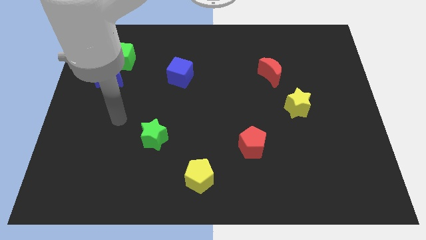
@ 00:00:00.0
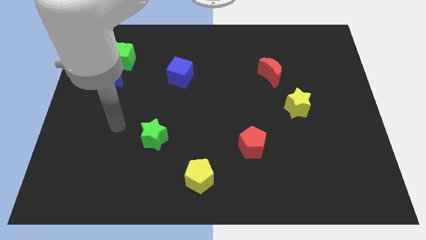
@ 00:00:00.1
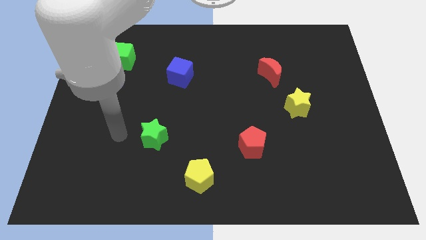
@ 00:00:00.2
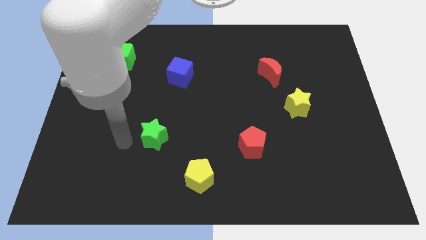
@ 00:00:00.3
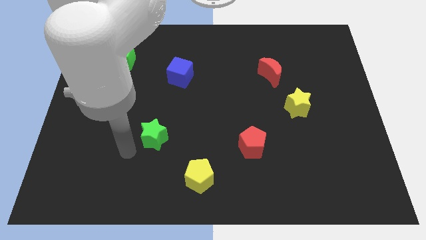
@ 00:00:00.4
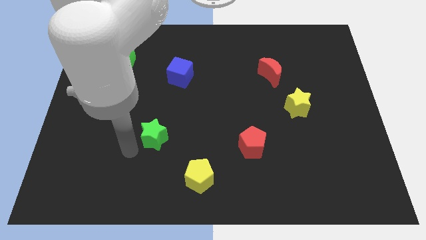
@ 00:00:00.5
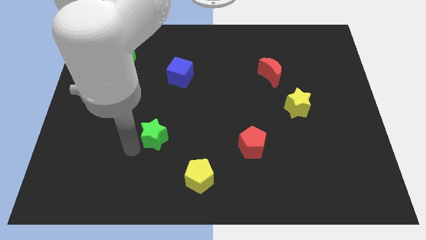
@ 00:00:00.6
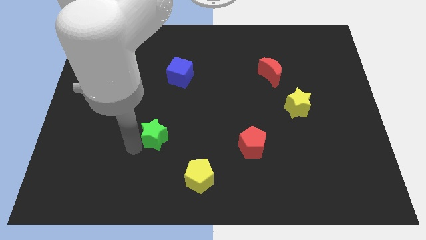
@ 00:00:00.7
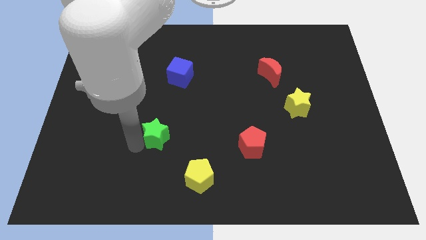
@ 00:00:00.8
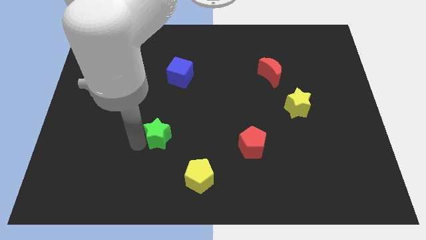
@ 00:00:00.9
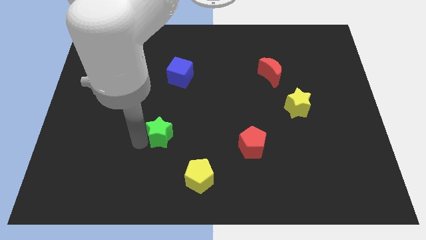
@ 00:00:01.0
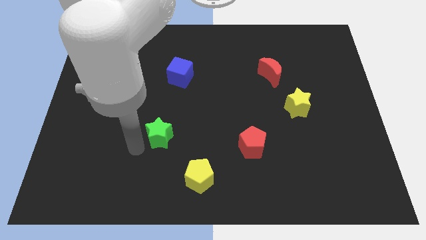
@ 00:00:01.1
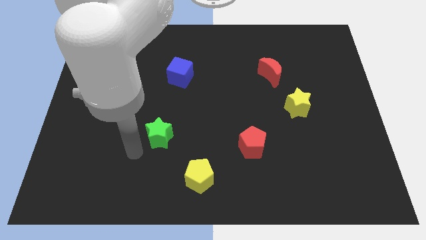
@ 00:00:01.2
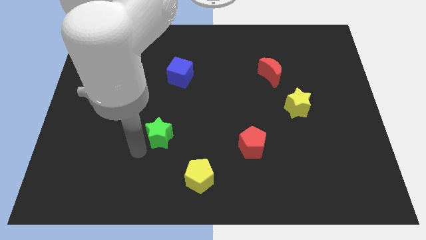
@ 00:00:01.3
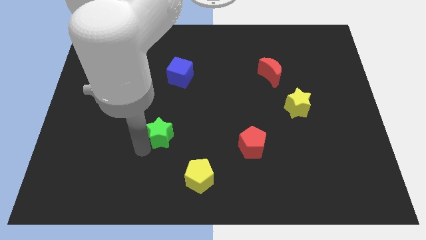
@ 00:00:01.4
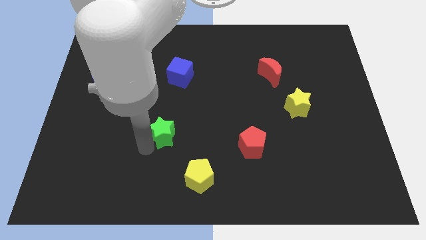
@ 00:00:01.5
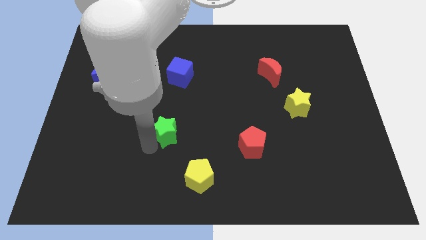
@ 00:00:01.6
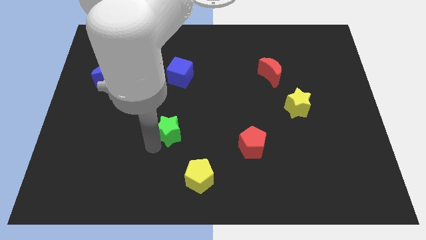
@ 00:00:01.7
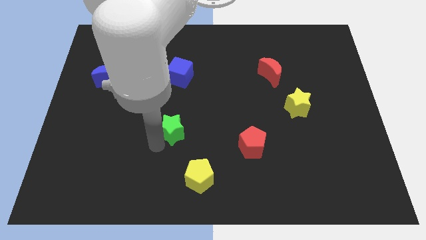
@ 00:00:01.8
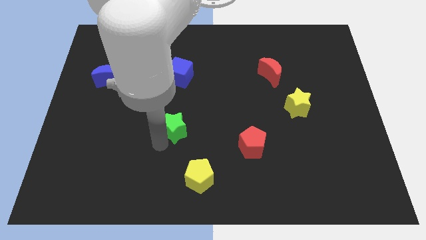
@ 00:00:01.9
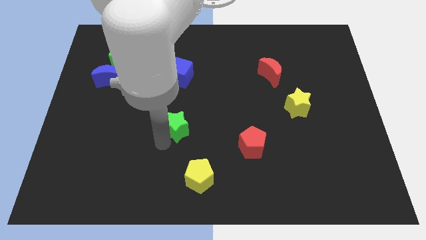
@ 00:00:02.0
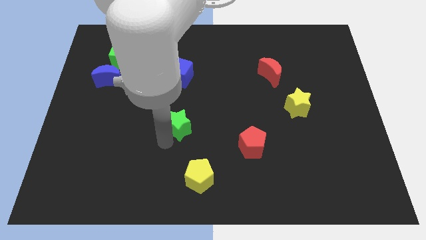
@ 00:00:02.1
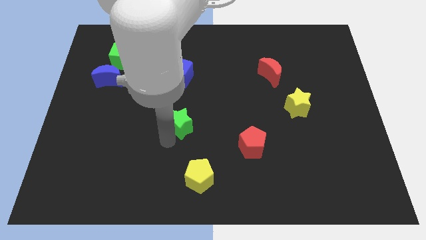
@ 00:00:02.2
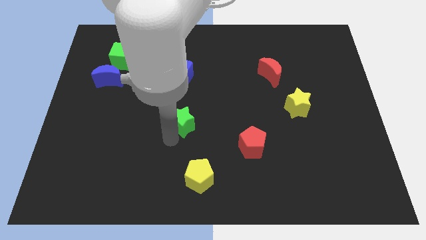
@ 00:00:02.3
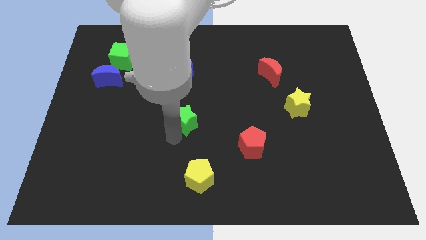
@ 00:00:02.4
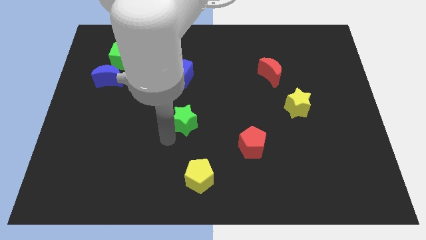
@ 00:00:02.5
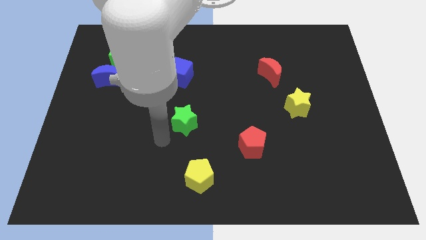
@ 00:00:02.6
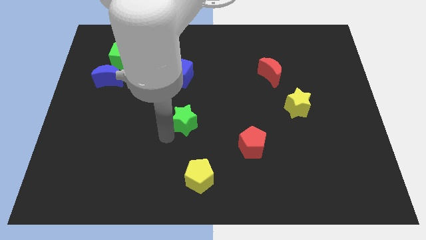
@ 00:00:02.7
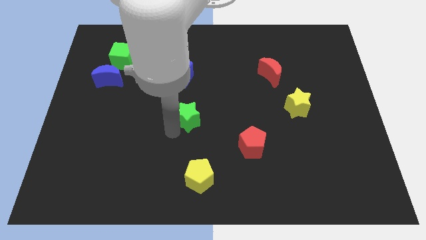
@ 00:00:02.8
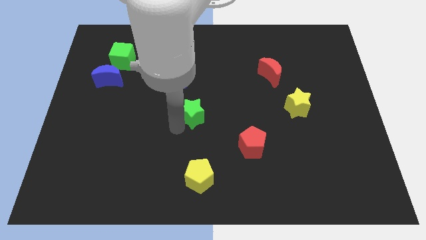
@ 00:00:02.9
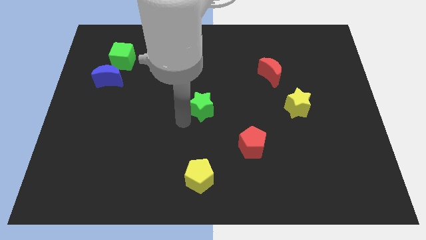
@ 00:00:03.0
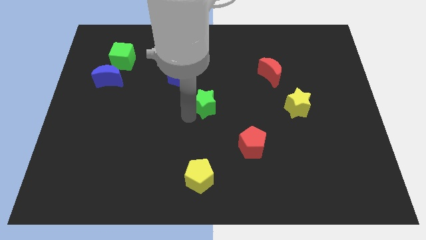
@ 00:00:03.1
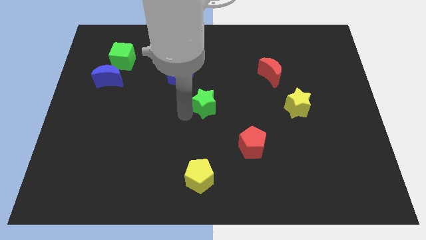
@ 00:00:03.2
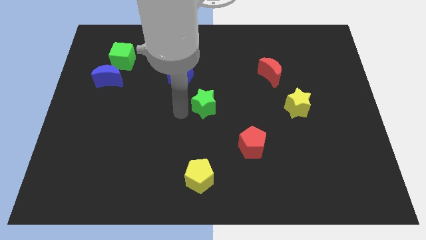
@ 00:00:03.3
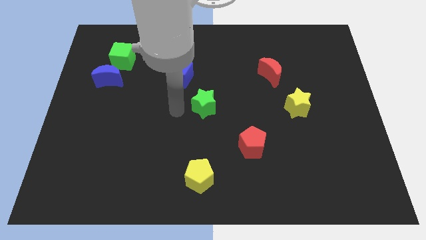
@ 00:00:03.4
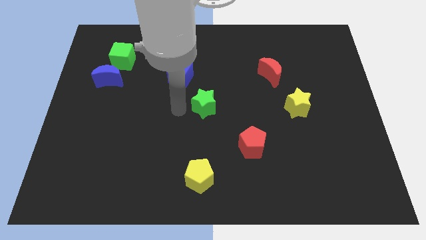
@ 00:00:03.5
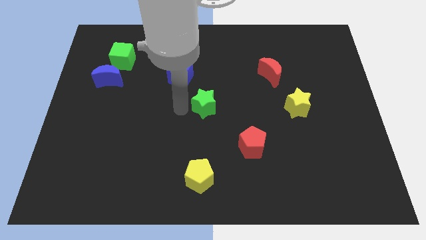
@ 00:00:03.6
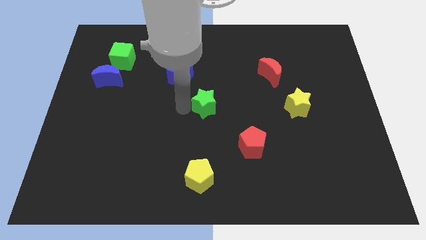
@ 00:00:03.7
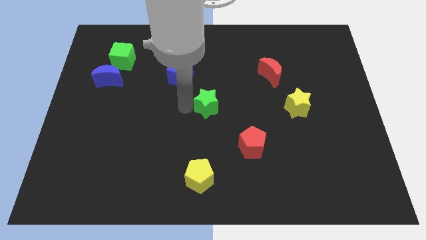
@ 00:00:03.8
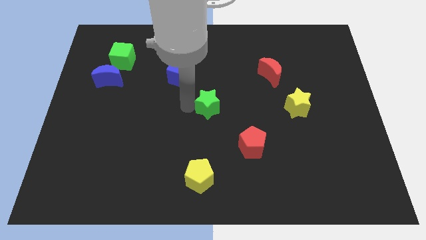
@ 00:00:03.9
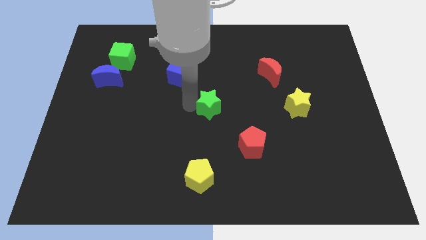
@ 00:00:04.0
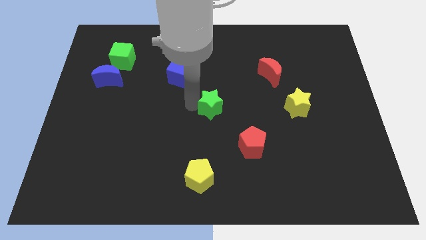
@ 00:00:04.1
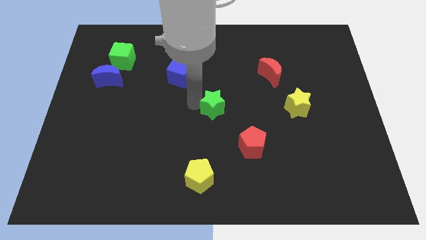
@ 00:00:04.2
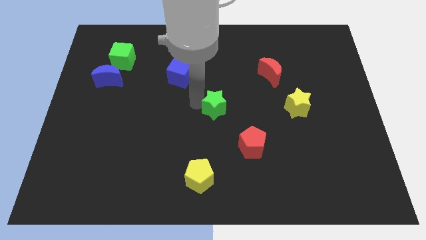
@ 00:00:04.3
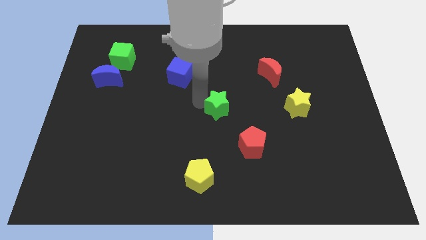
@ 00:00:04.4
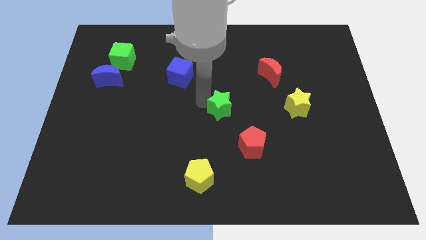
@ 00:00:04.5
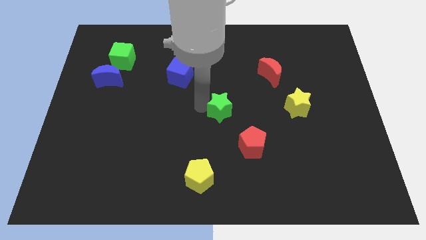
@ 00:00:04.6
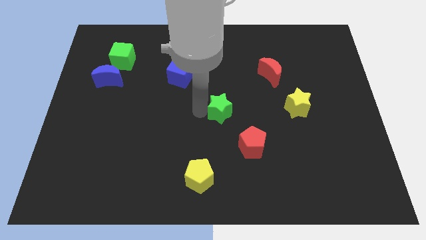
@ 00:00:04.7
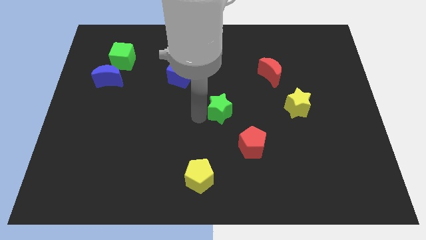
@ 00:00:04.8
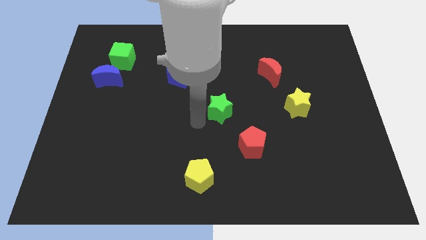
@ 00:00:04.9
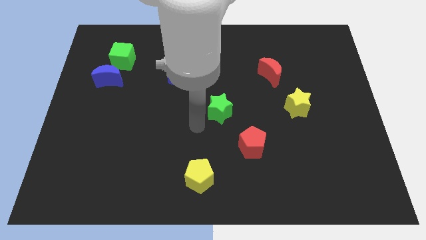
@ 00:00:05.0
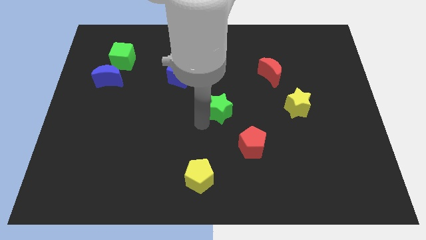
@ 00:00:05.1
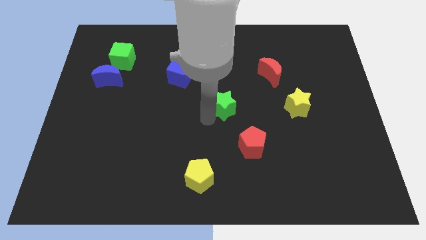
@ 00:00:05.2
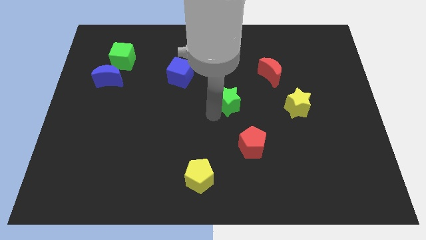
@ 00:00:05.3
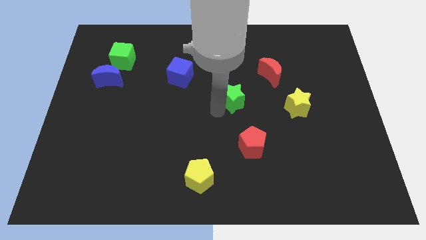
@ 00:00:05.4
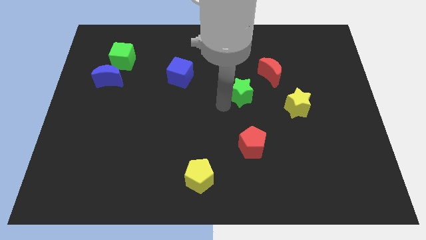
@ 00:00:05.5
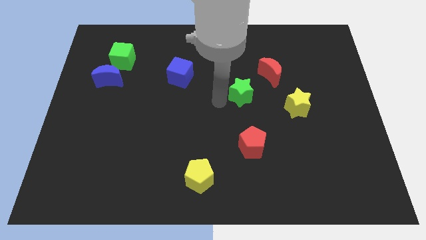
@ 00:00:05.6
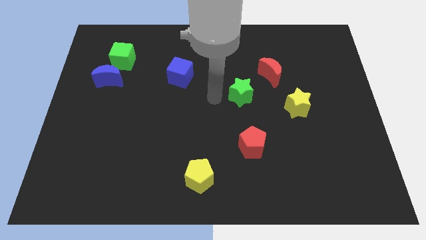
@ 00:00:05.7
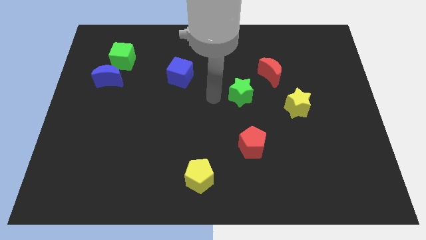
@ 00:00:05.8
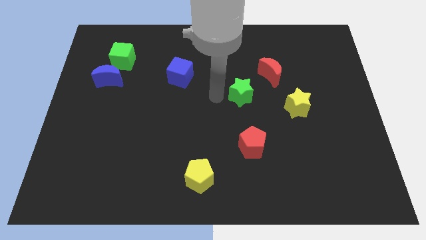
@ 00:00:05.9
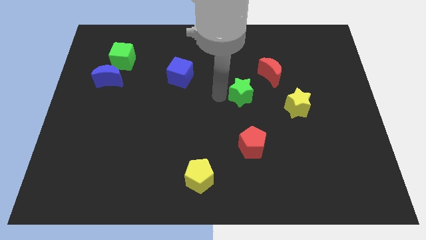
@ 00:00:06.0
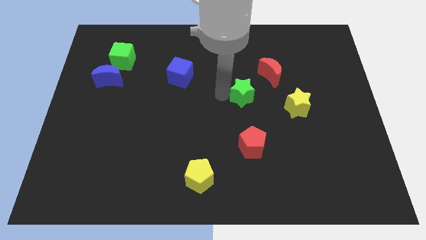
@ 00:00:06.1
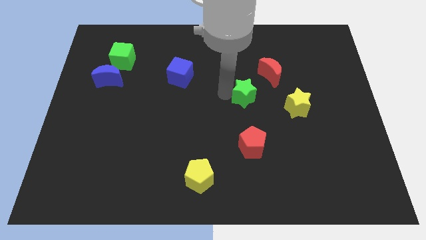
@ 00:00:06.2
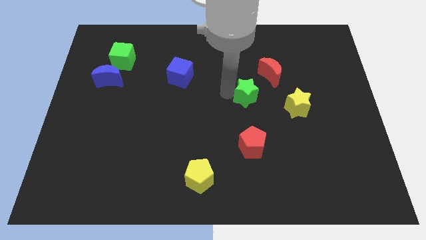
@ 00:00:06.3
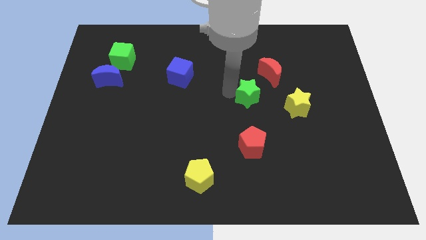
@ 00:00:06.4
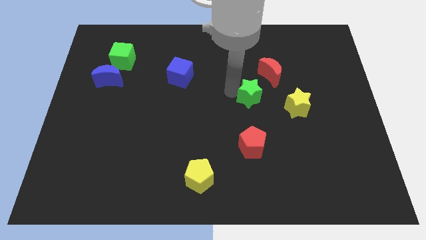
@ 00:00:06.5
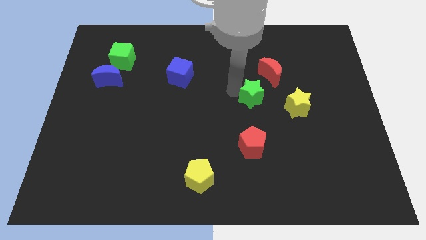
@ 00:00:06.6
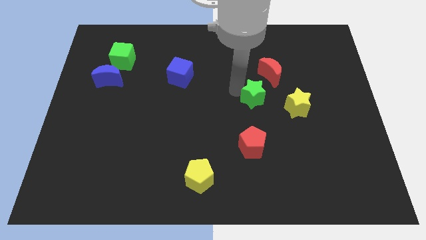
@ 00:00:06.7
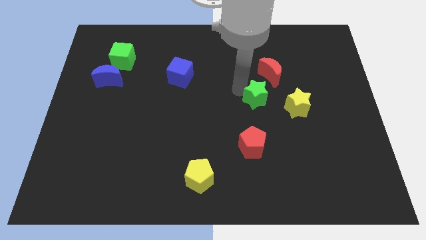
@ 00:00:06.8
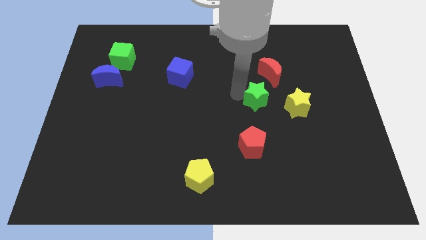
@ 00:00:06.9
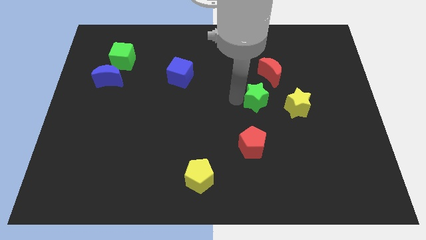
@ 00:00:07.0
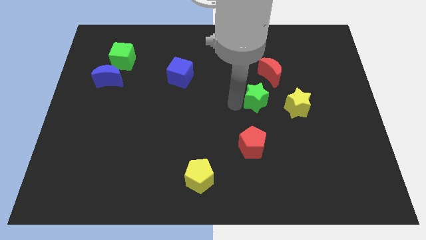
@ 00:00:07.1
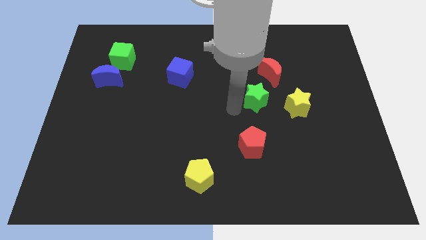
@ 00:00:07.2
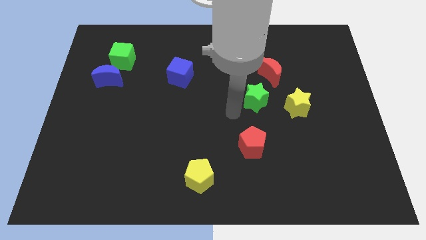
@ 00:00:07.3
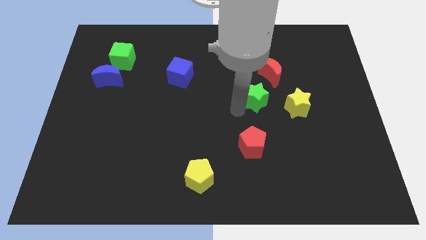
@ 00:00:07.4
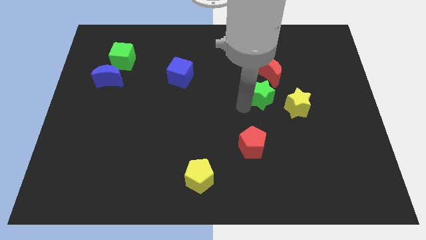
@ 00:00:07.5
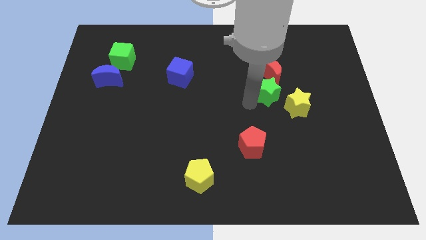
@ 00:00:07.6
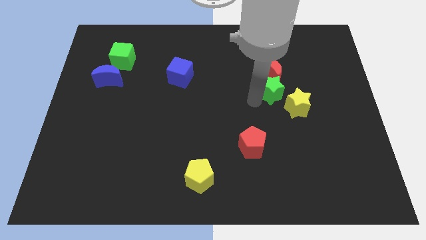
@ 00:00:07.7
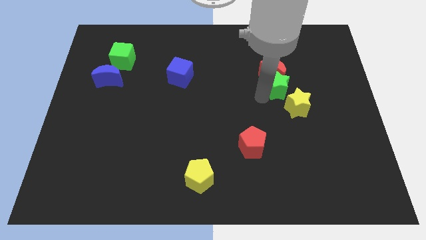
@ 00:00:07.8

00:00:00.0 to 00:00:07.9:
push the green star to the top side of the yellow star
